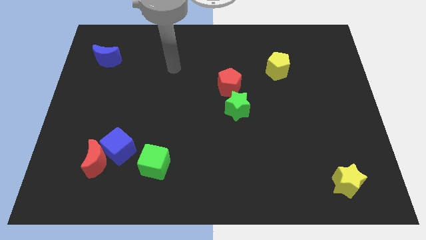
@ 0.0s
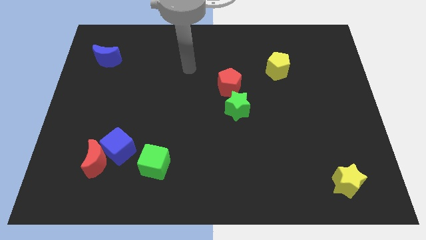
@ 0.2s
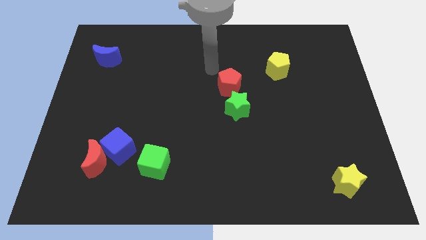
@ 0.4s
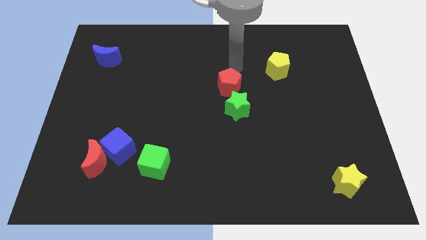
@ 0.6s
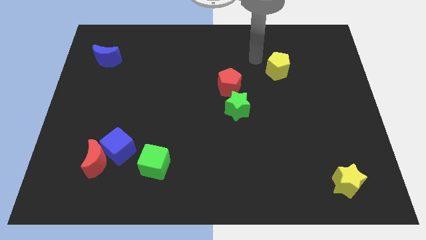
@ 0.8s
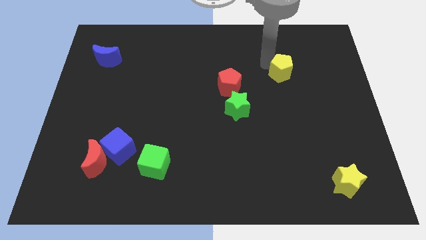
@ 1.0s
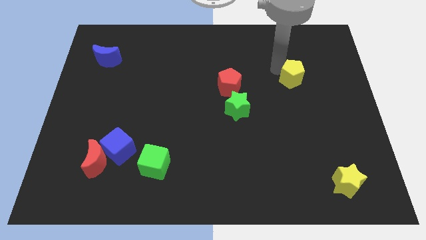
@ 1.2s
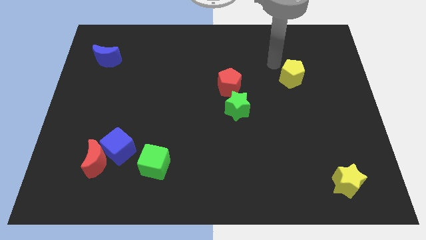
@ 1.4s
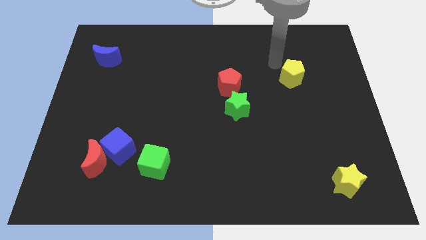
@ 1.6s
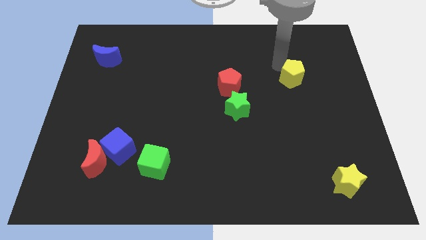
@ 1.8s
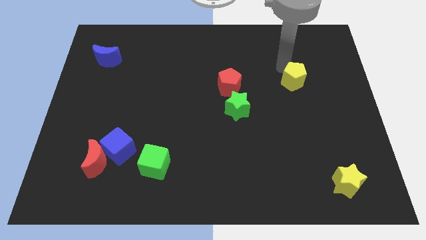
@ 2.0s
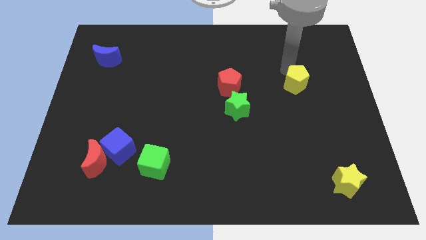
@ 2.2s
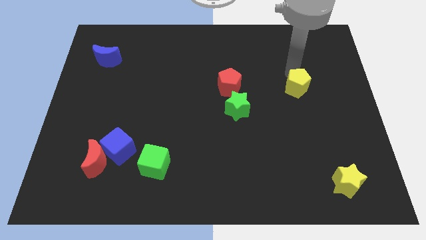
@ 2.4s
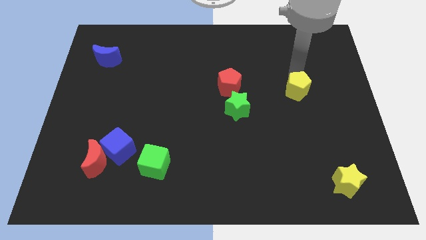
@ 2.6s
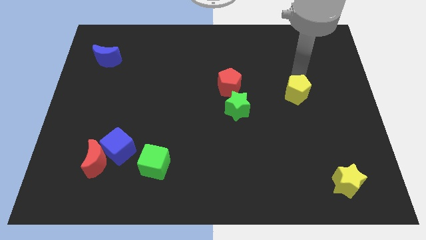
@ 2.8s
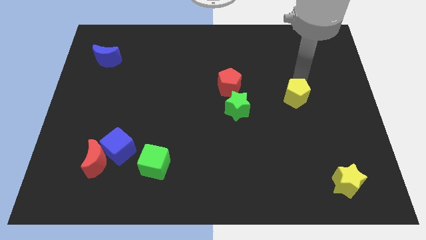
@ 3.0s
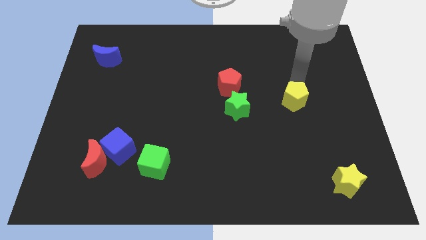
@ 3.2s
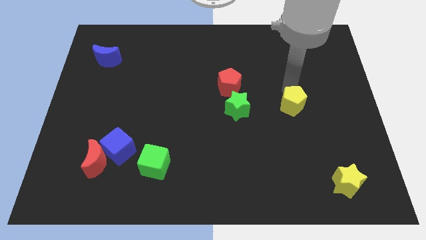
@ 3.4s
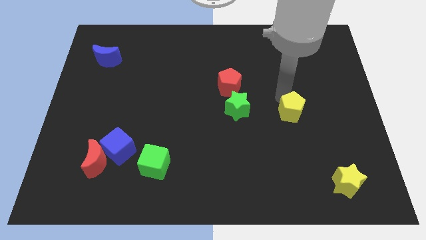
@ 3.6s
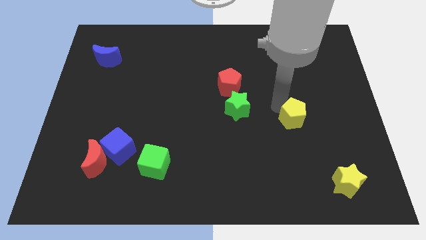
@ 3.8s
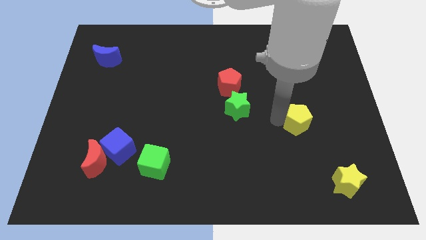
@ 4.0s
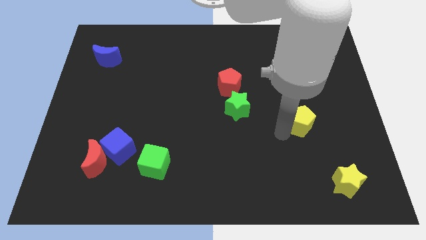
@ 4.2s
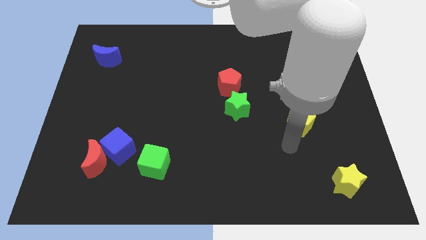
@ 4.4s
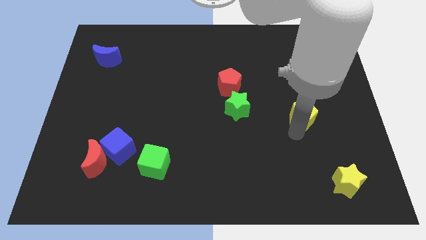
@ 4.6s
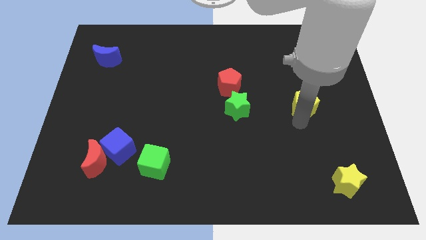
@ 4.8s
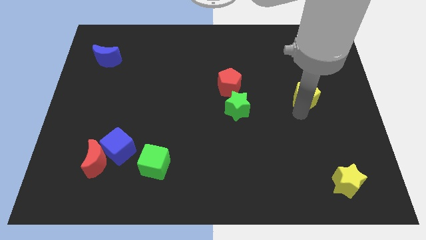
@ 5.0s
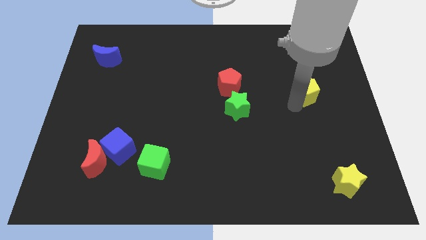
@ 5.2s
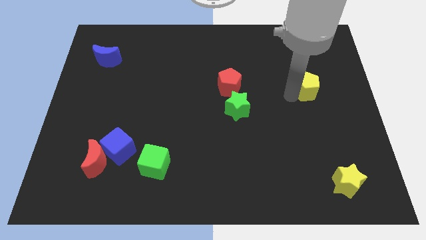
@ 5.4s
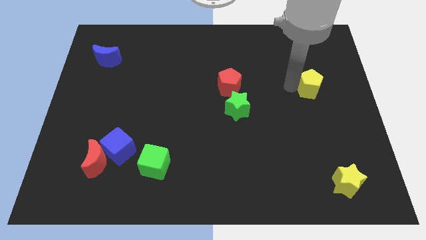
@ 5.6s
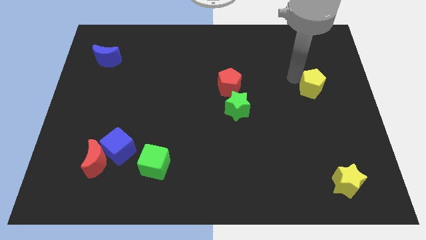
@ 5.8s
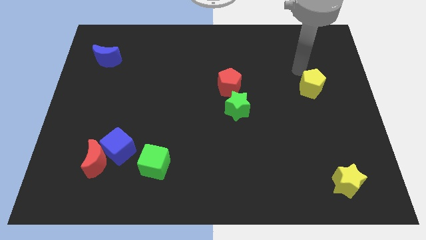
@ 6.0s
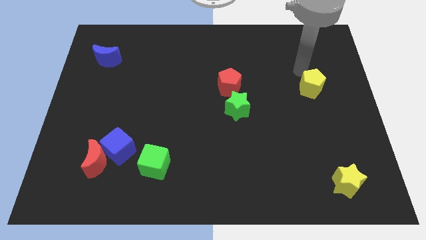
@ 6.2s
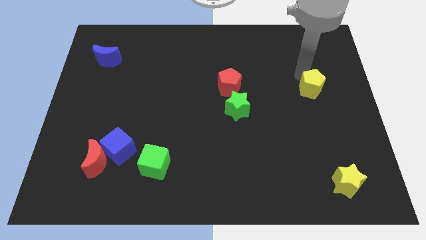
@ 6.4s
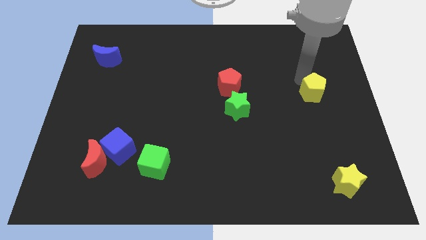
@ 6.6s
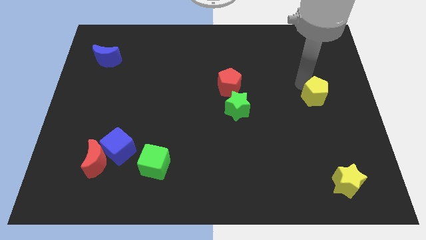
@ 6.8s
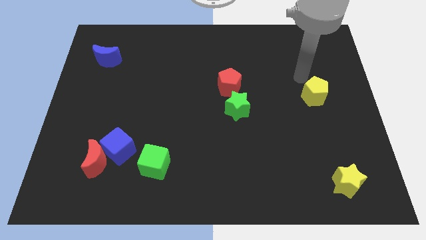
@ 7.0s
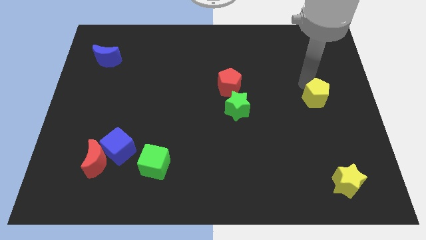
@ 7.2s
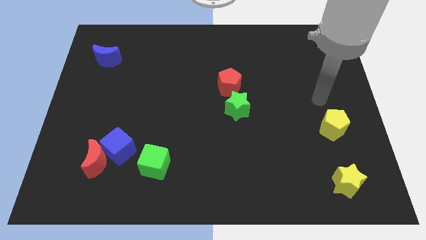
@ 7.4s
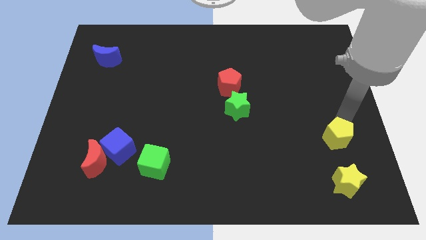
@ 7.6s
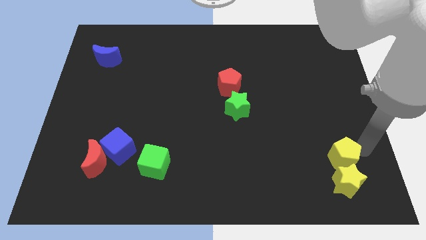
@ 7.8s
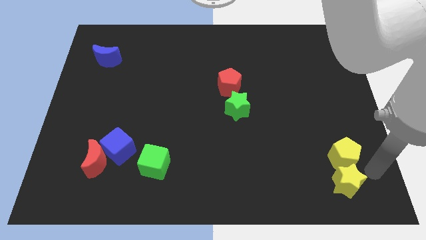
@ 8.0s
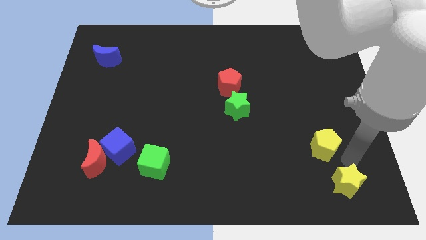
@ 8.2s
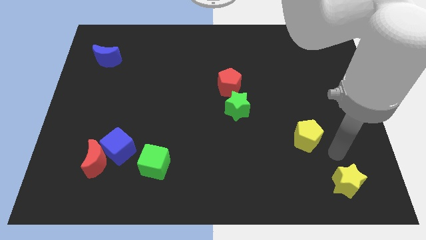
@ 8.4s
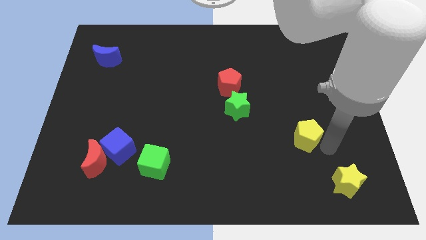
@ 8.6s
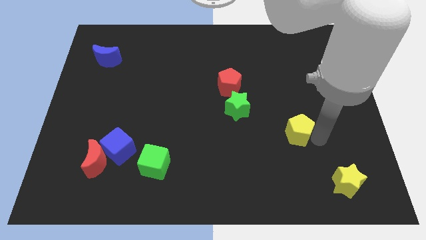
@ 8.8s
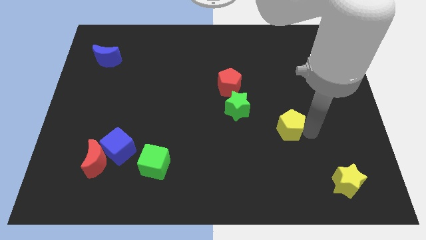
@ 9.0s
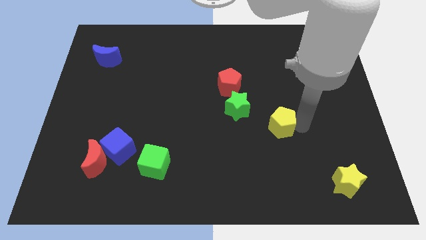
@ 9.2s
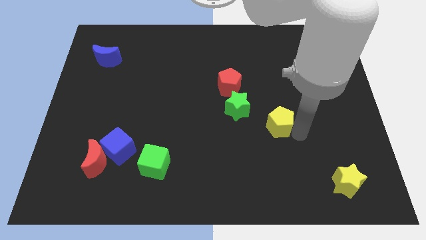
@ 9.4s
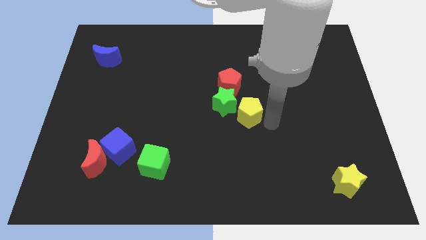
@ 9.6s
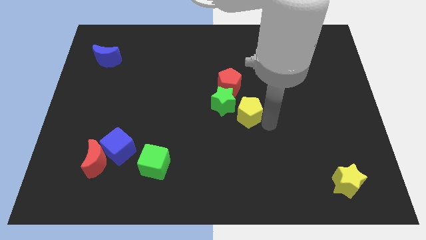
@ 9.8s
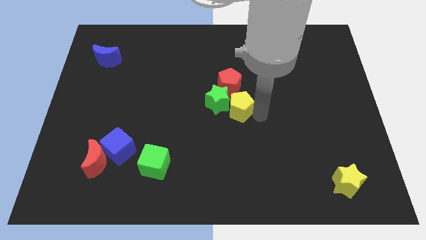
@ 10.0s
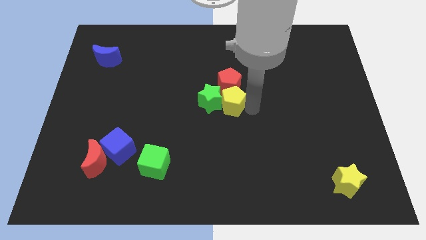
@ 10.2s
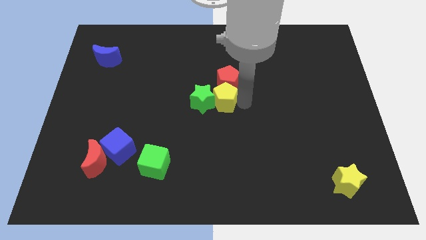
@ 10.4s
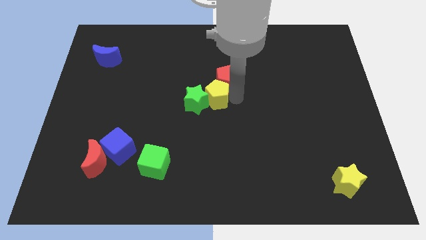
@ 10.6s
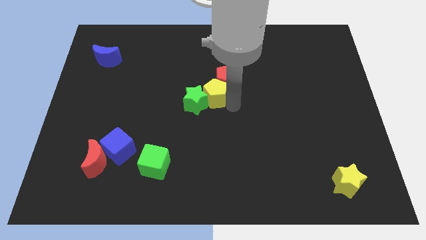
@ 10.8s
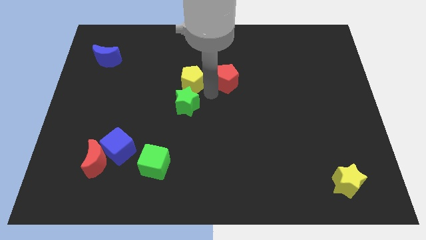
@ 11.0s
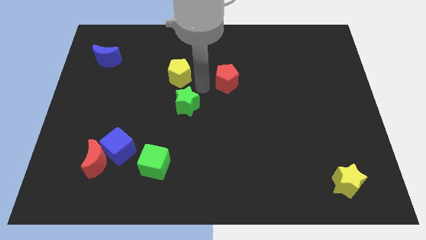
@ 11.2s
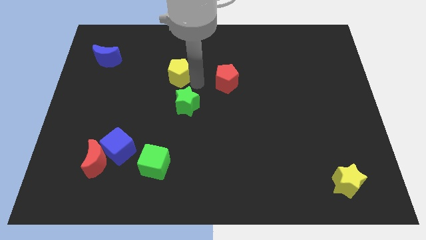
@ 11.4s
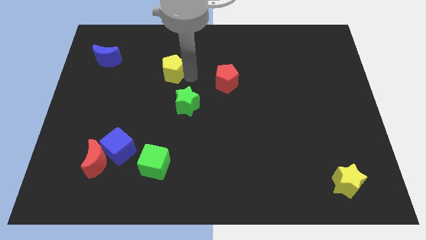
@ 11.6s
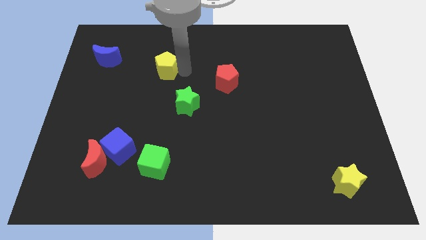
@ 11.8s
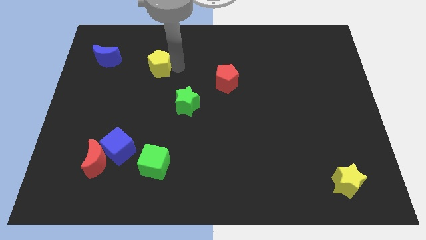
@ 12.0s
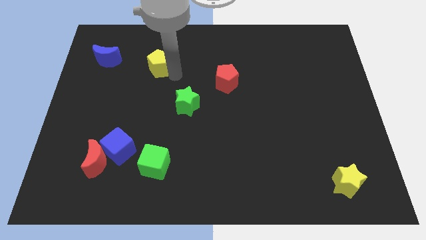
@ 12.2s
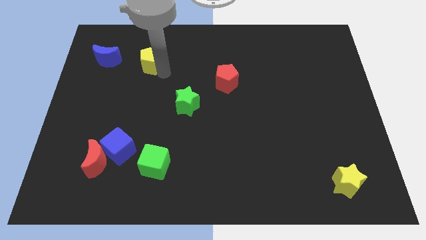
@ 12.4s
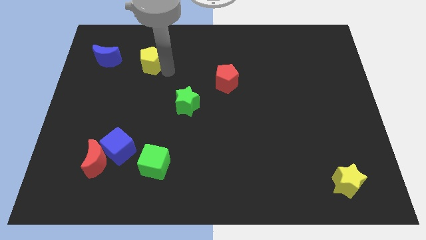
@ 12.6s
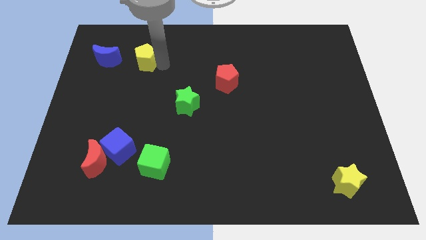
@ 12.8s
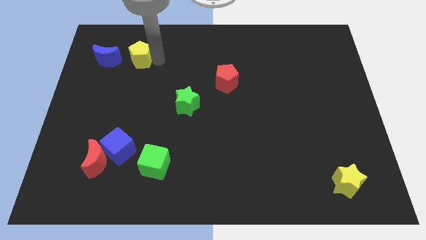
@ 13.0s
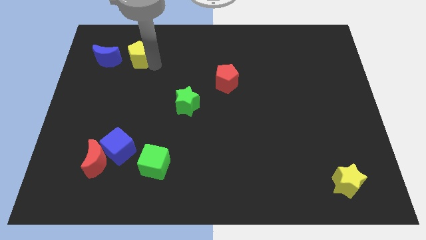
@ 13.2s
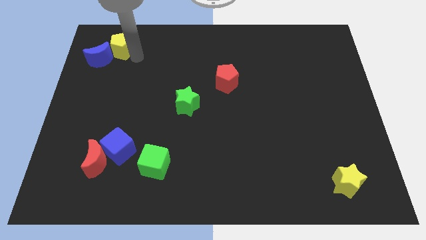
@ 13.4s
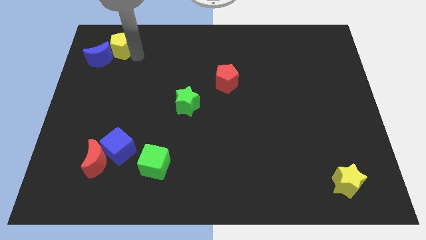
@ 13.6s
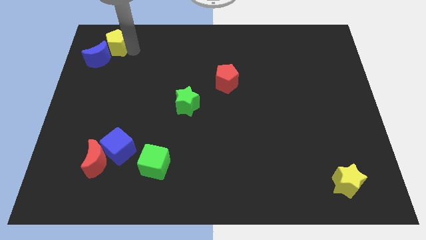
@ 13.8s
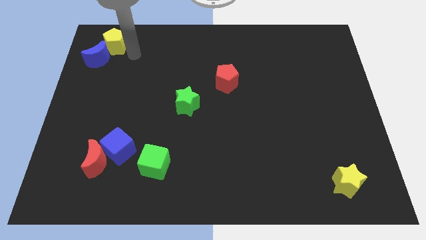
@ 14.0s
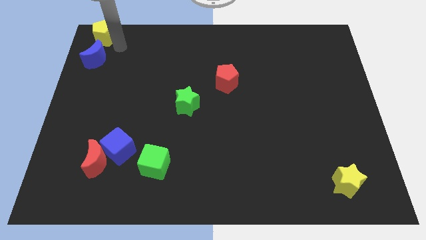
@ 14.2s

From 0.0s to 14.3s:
push the yellow pentagon to the top left
